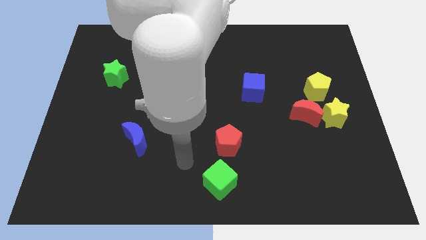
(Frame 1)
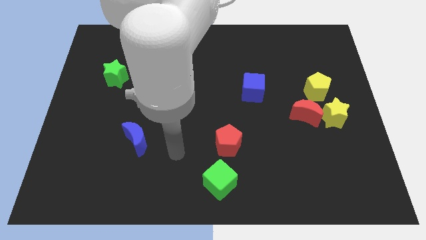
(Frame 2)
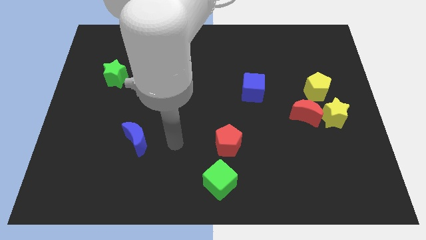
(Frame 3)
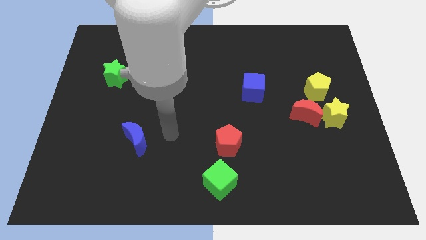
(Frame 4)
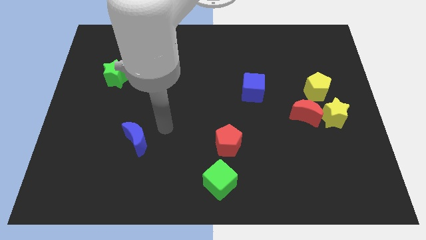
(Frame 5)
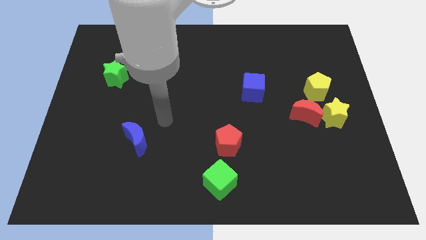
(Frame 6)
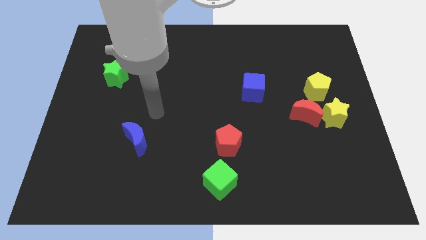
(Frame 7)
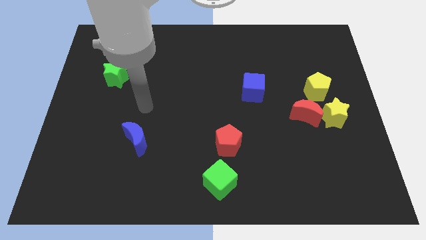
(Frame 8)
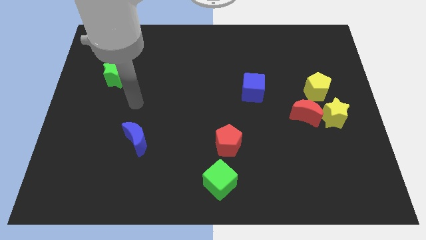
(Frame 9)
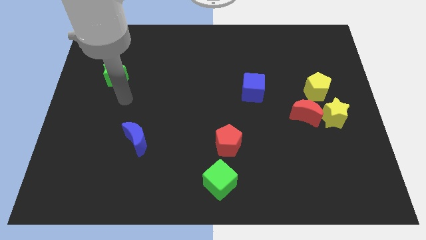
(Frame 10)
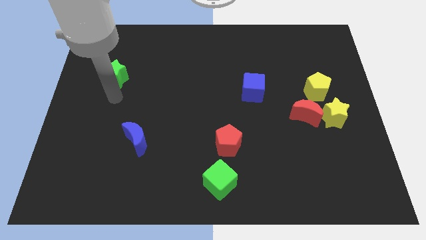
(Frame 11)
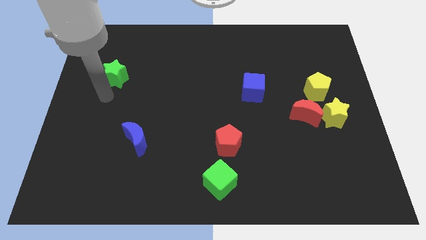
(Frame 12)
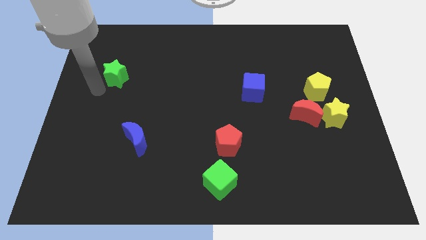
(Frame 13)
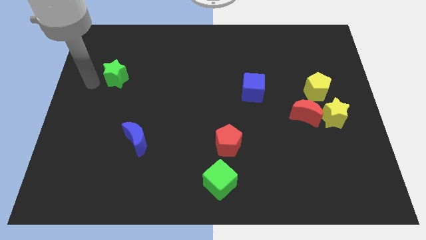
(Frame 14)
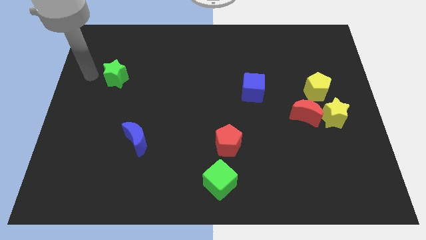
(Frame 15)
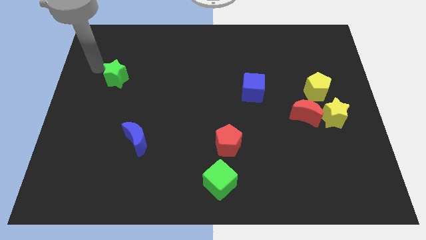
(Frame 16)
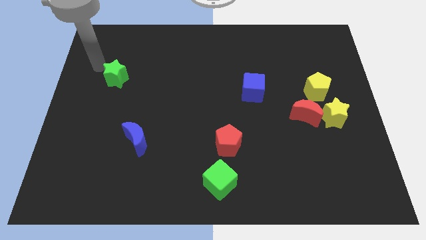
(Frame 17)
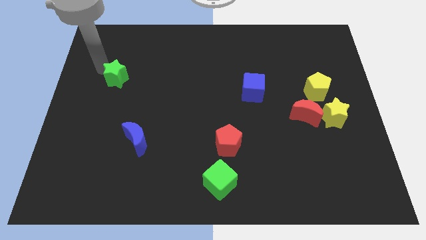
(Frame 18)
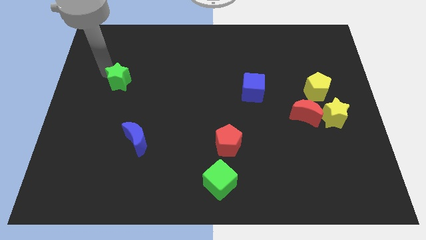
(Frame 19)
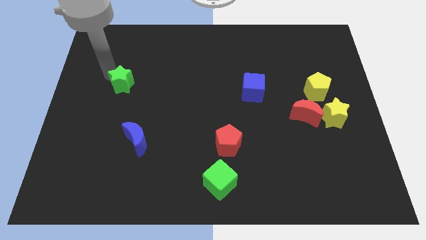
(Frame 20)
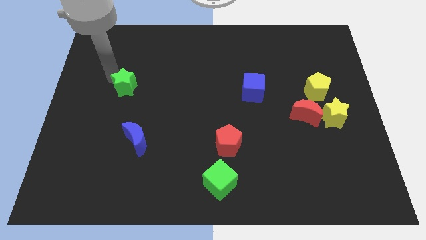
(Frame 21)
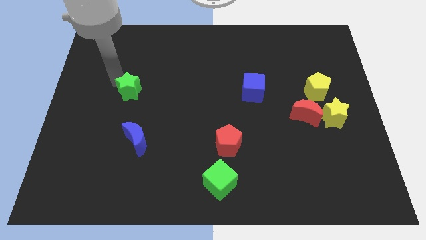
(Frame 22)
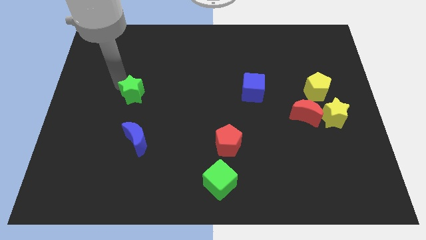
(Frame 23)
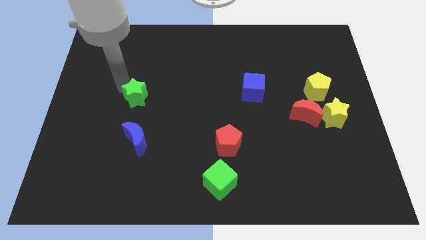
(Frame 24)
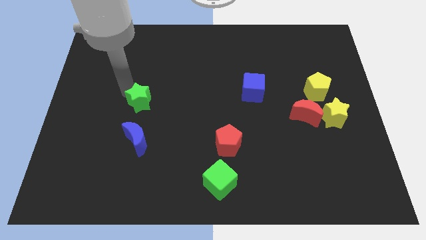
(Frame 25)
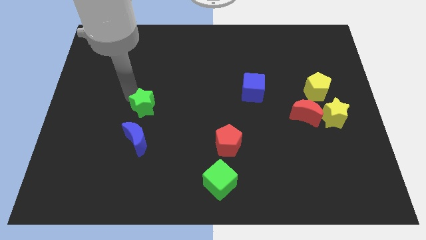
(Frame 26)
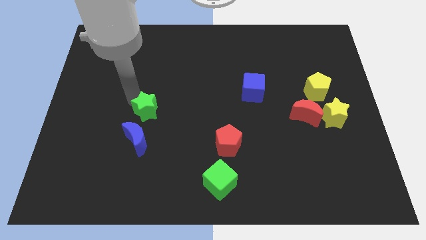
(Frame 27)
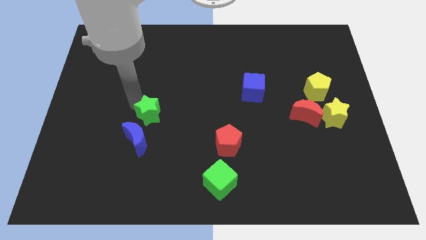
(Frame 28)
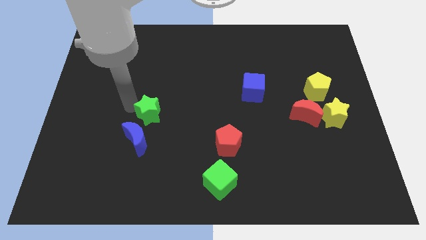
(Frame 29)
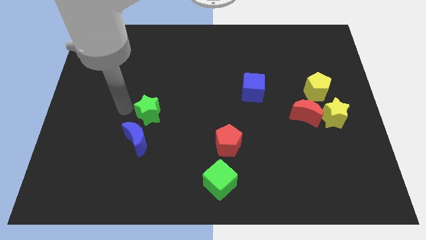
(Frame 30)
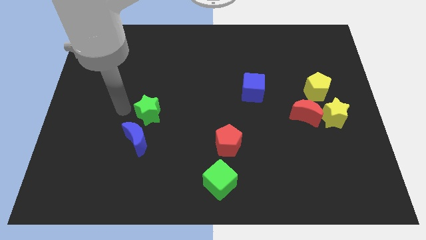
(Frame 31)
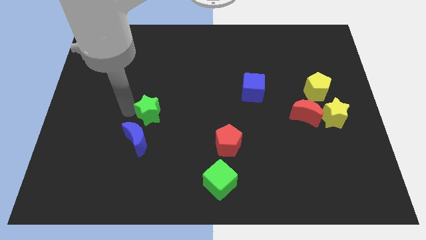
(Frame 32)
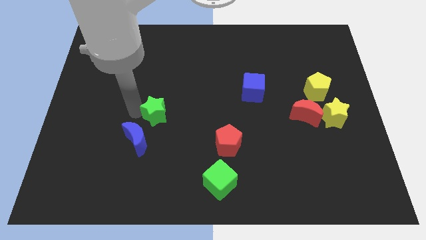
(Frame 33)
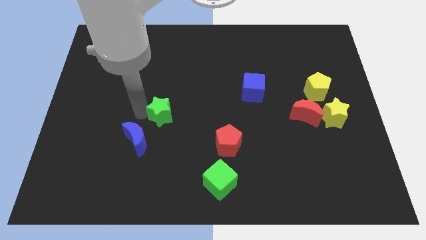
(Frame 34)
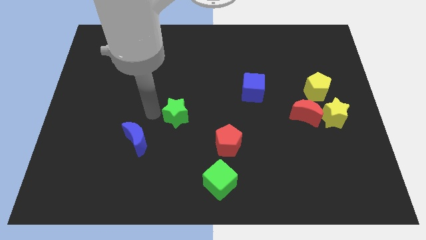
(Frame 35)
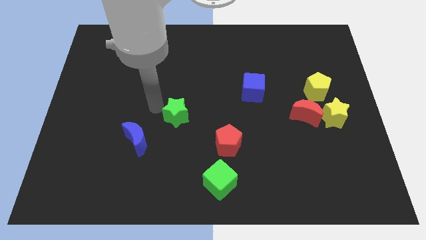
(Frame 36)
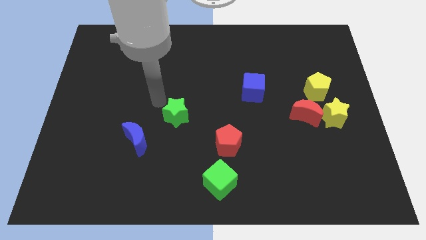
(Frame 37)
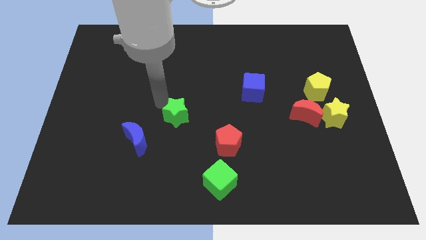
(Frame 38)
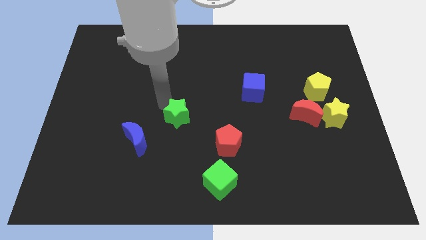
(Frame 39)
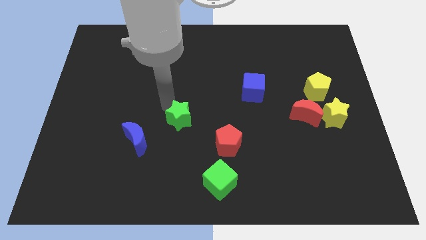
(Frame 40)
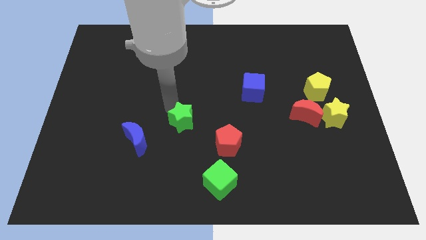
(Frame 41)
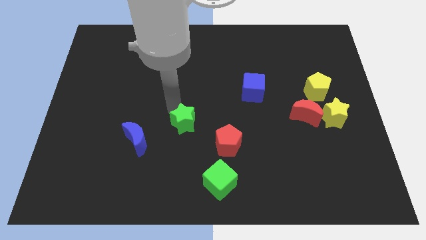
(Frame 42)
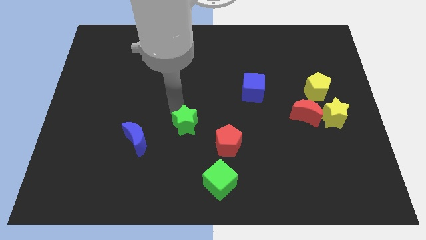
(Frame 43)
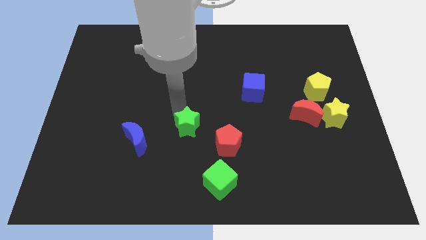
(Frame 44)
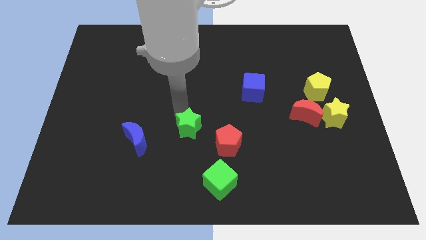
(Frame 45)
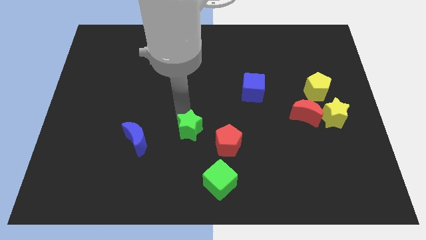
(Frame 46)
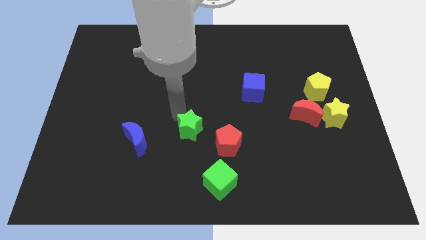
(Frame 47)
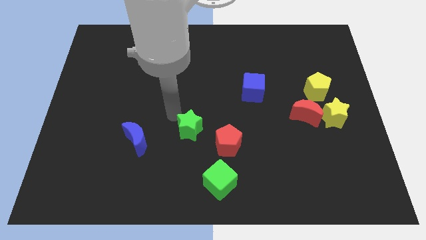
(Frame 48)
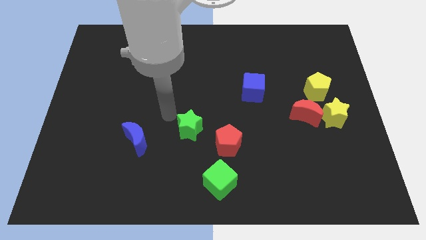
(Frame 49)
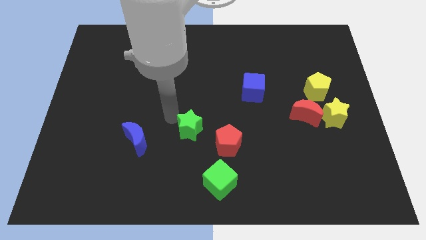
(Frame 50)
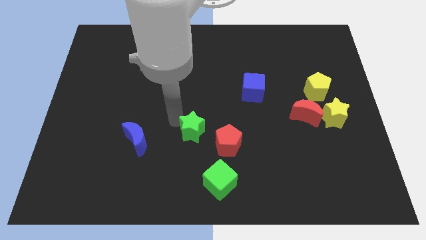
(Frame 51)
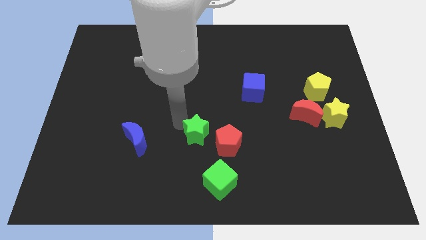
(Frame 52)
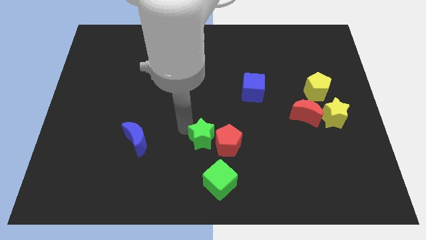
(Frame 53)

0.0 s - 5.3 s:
move the green star next to the red pentagon

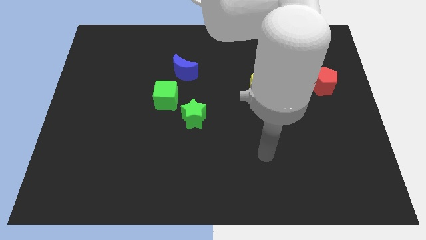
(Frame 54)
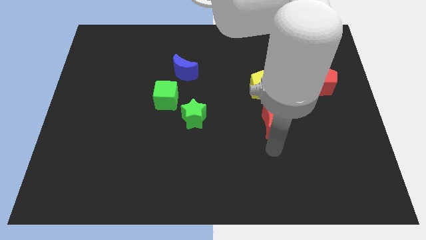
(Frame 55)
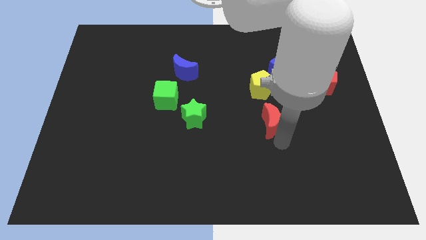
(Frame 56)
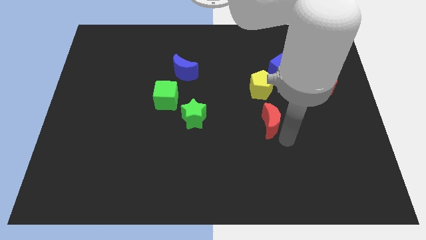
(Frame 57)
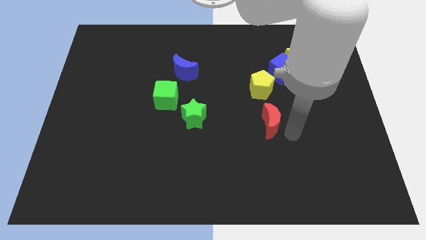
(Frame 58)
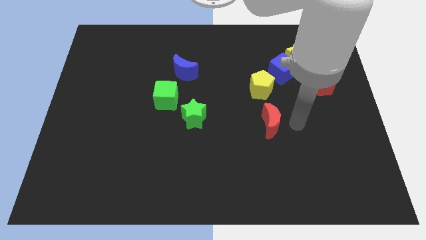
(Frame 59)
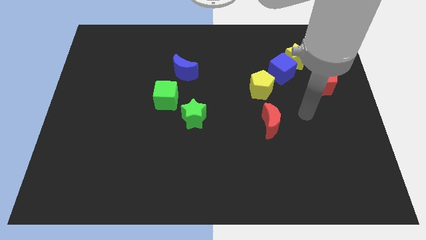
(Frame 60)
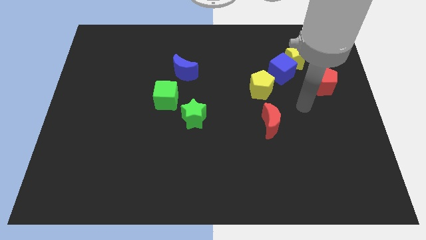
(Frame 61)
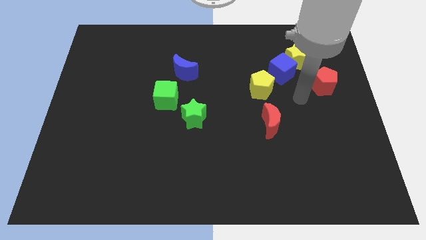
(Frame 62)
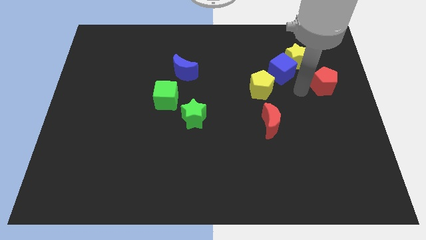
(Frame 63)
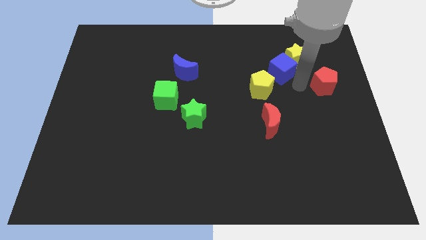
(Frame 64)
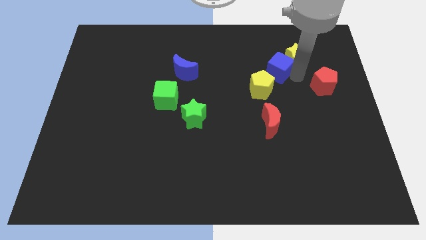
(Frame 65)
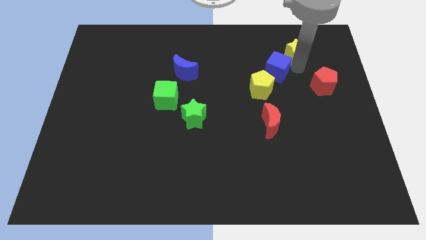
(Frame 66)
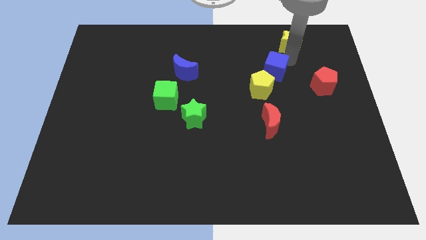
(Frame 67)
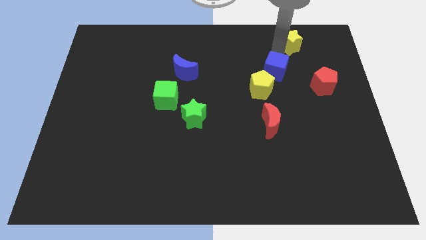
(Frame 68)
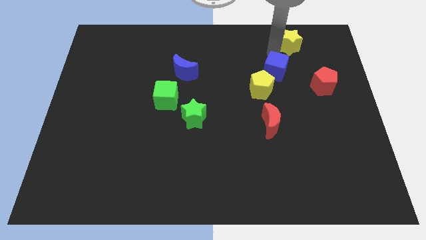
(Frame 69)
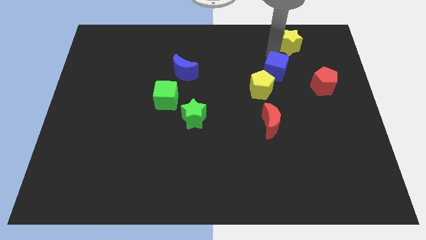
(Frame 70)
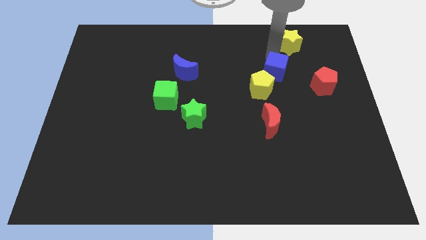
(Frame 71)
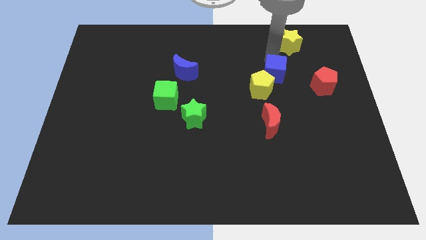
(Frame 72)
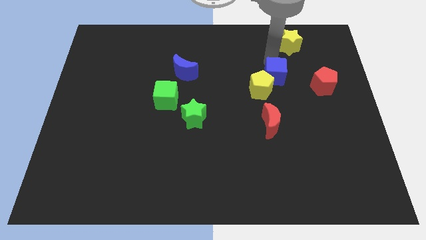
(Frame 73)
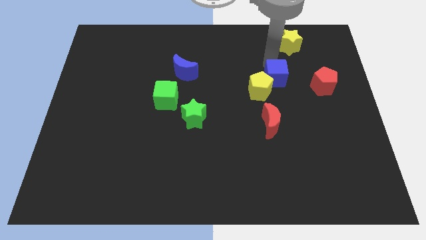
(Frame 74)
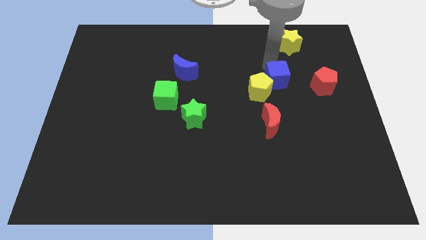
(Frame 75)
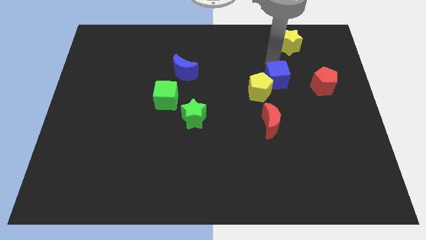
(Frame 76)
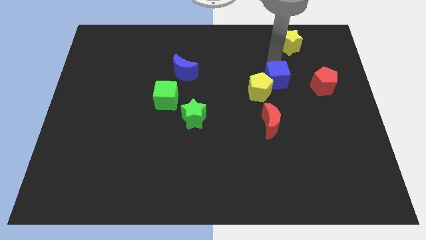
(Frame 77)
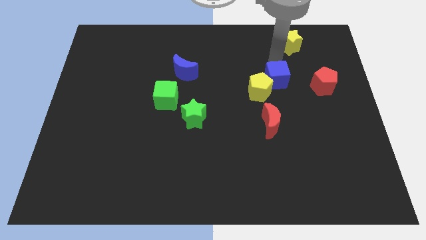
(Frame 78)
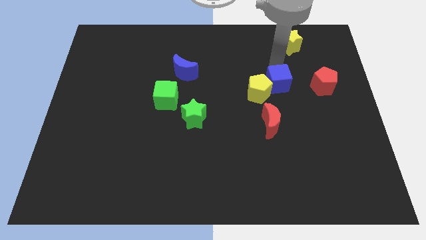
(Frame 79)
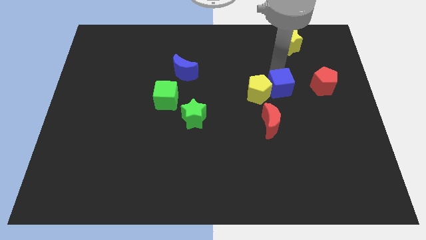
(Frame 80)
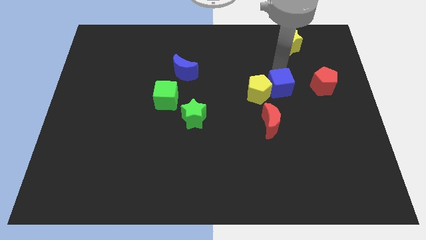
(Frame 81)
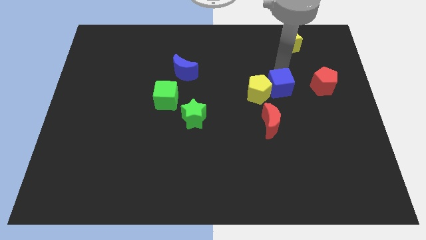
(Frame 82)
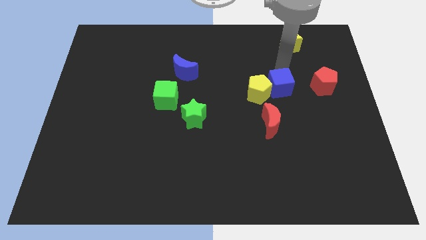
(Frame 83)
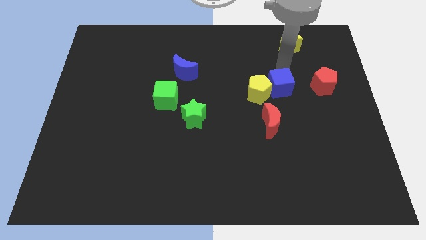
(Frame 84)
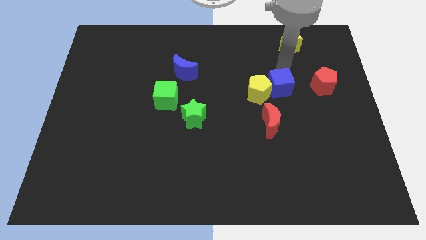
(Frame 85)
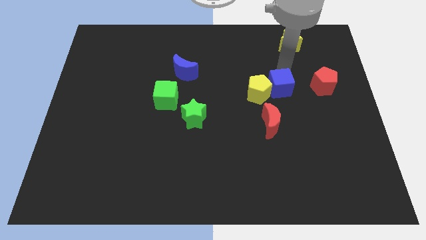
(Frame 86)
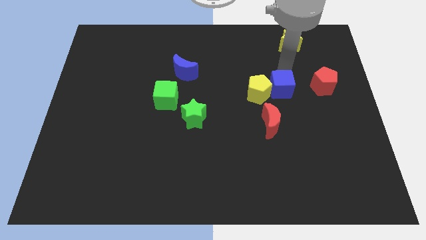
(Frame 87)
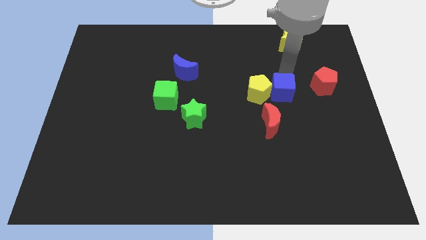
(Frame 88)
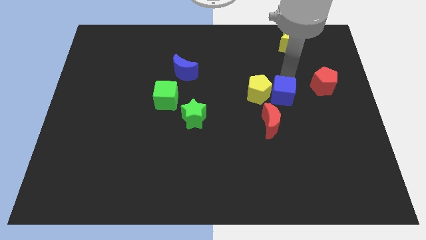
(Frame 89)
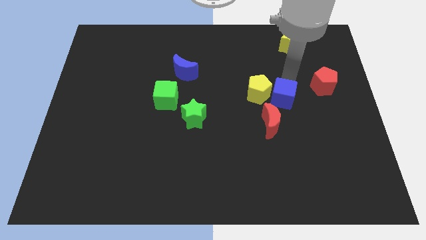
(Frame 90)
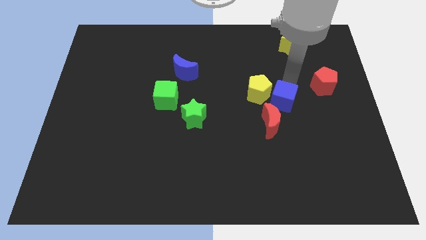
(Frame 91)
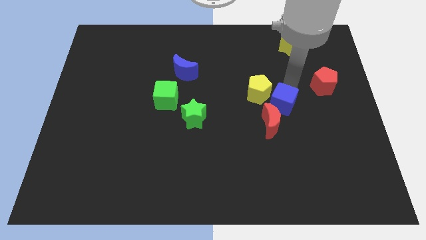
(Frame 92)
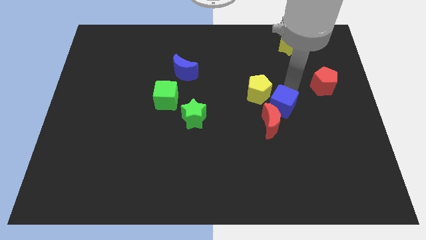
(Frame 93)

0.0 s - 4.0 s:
move the blue cube next to the red moon
